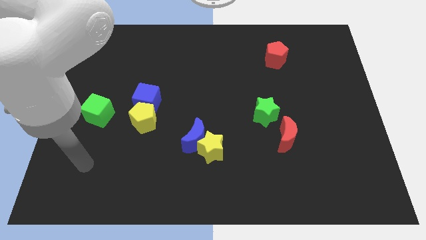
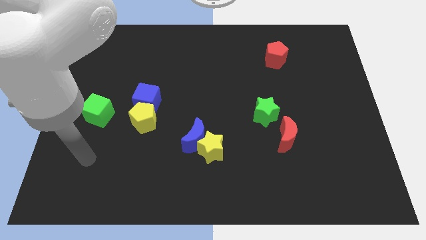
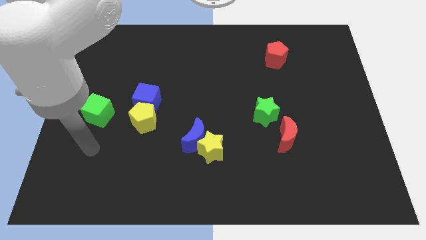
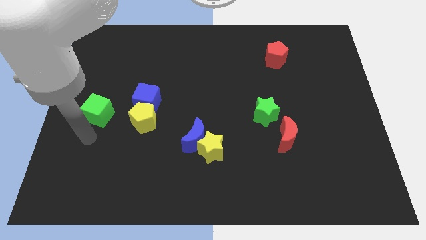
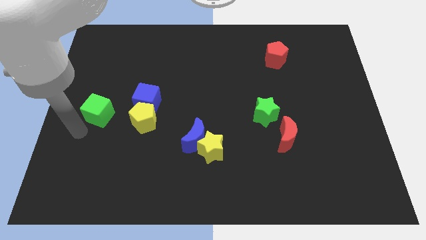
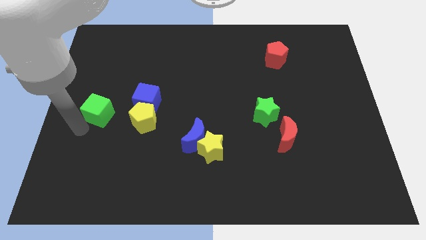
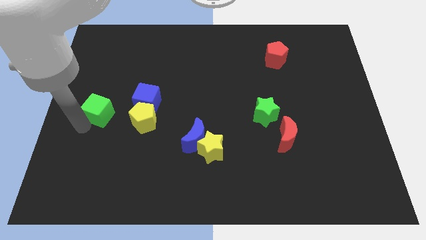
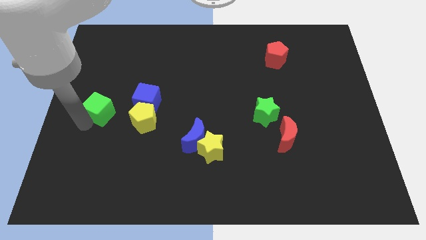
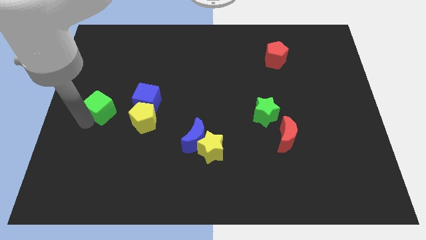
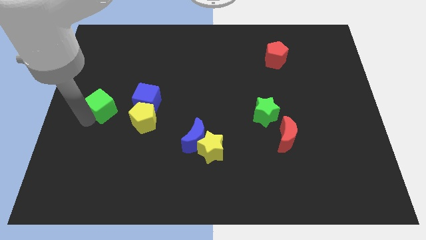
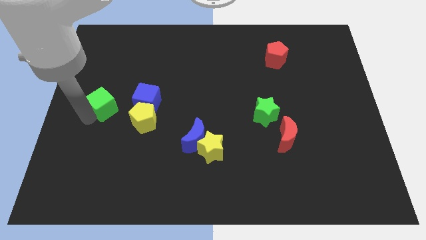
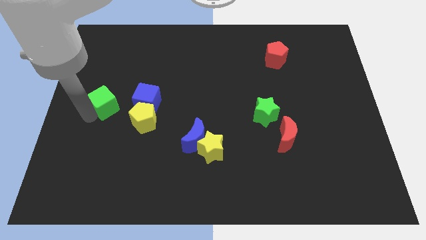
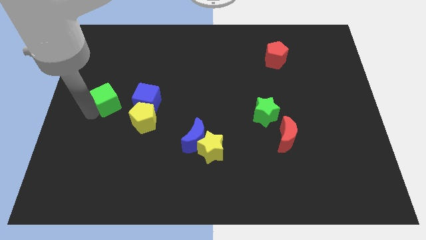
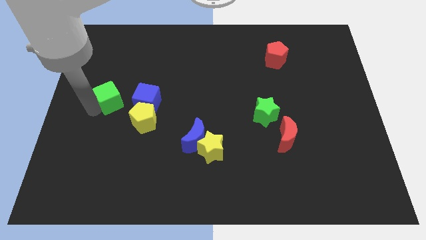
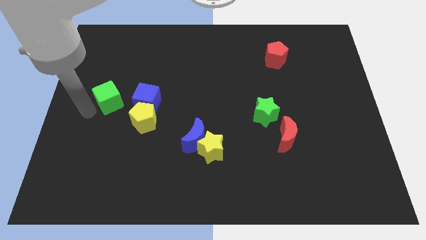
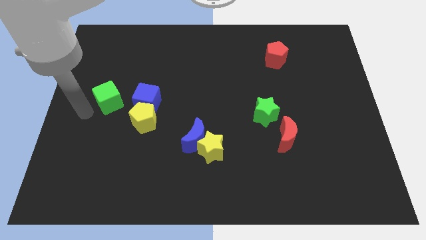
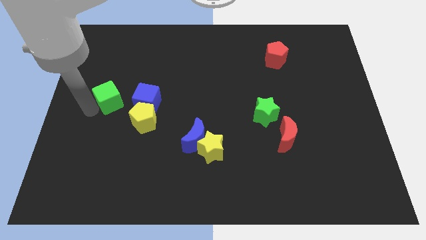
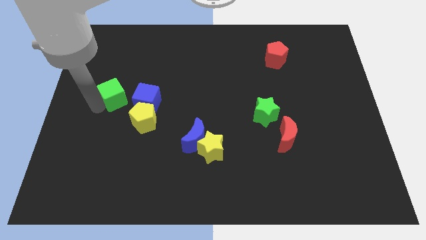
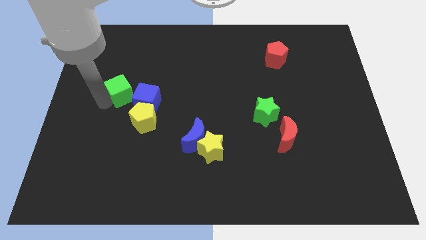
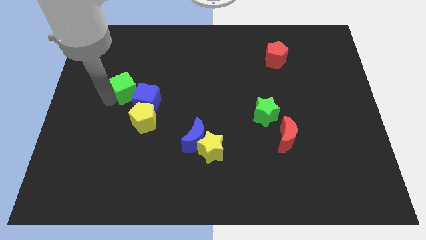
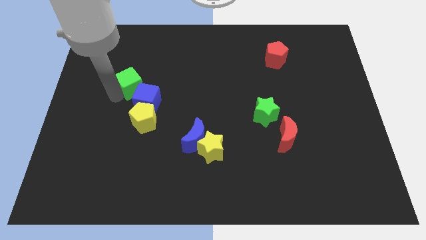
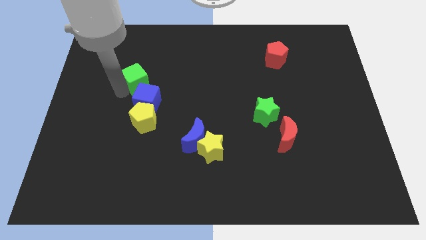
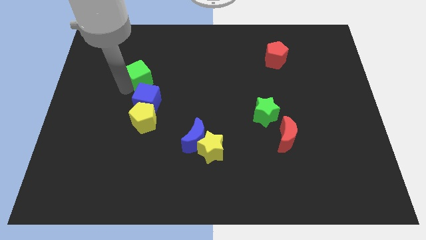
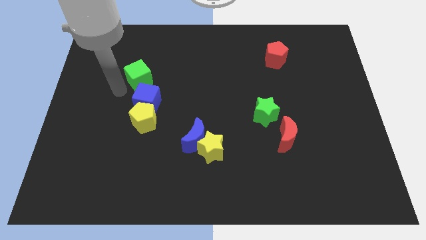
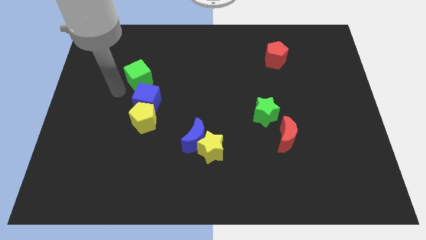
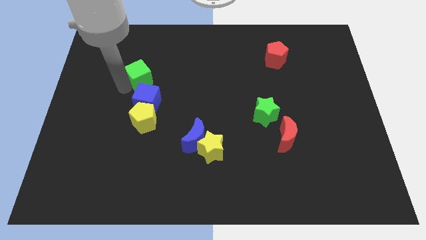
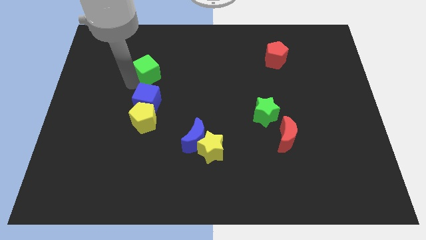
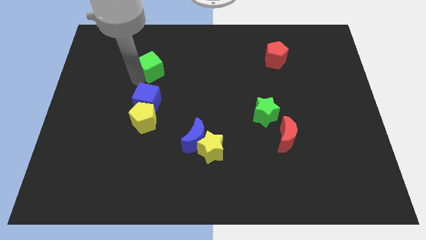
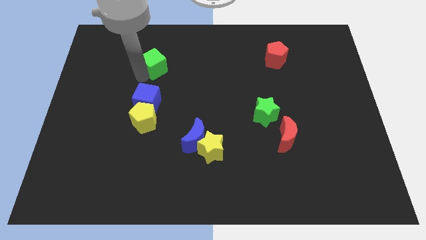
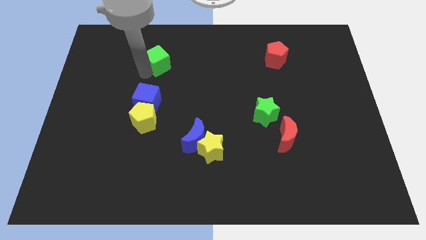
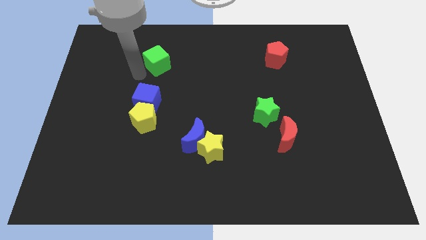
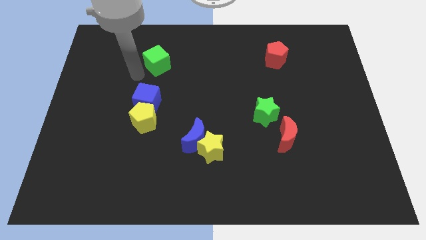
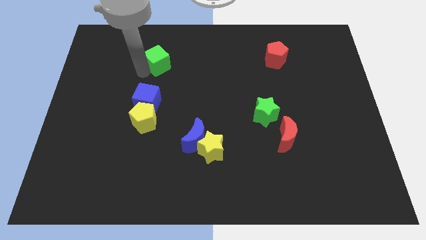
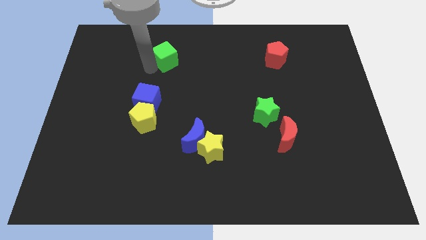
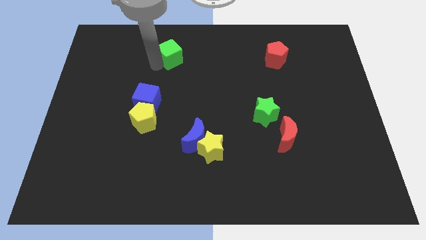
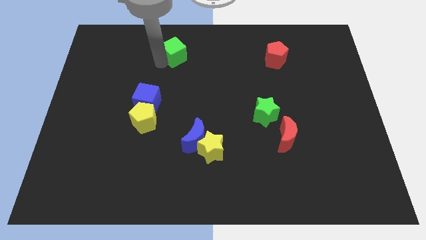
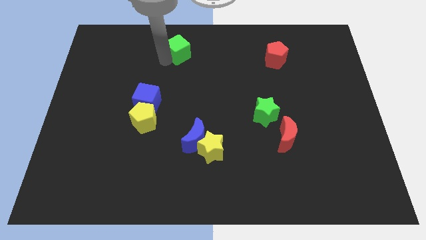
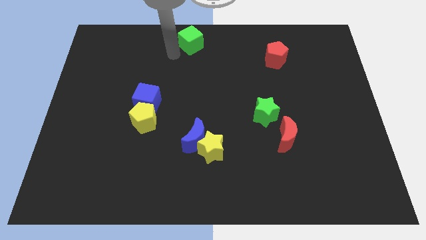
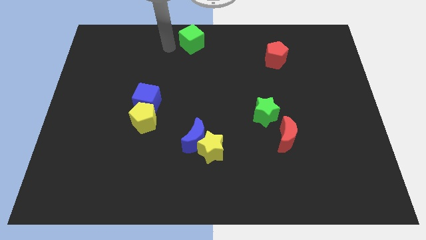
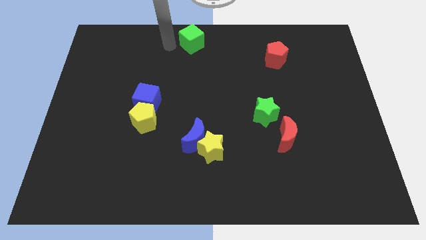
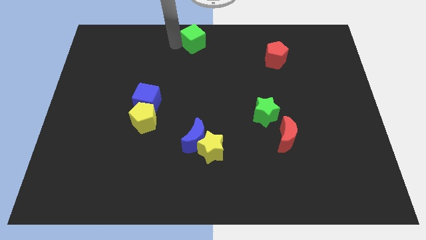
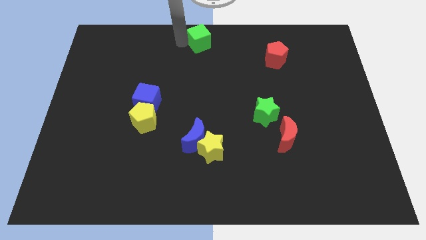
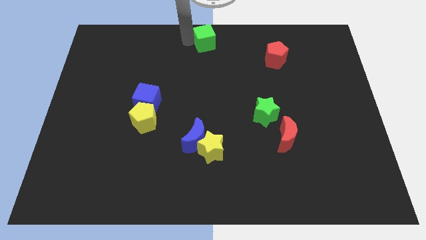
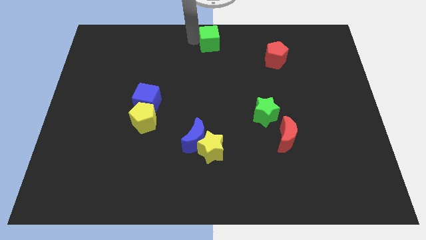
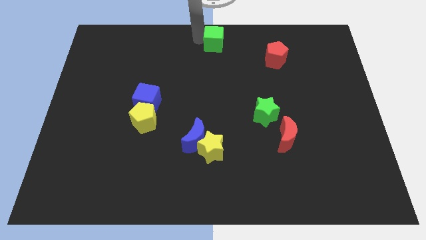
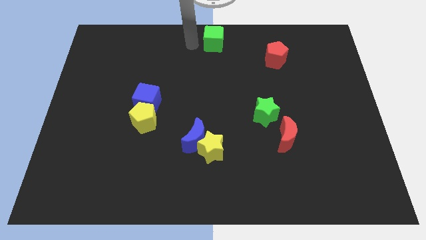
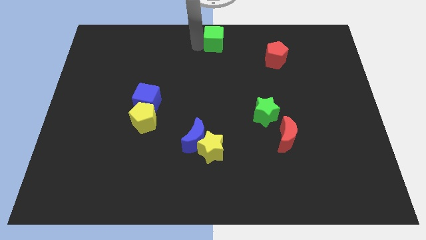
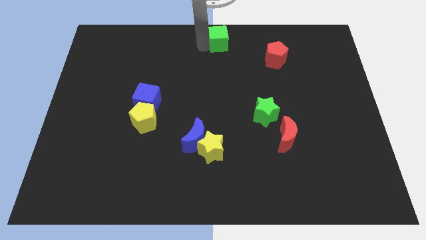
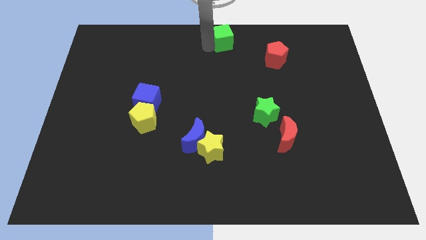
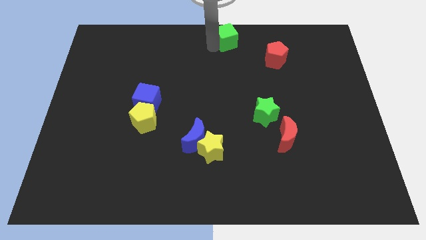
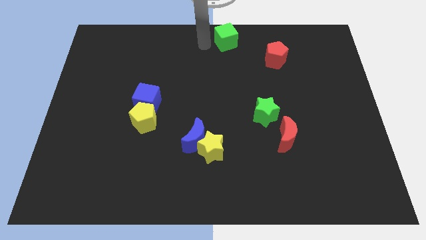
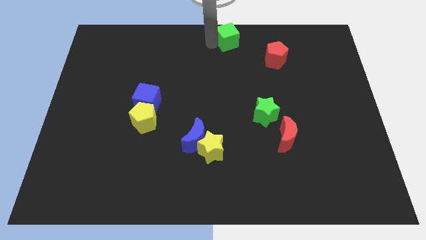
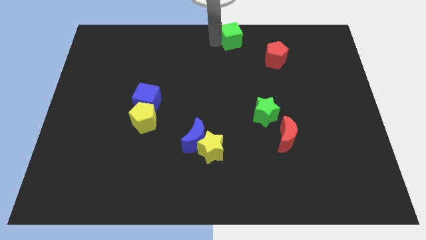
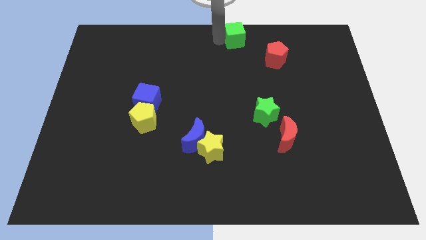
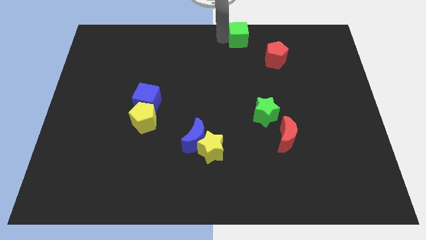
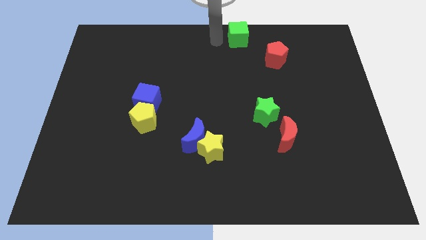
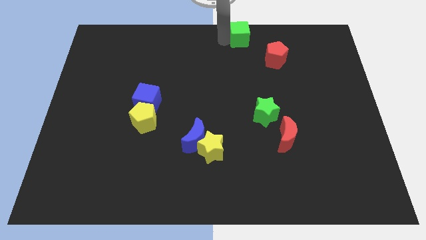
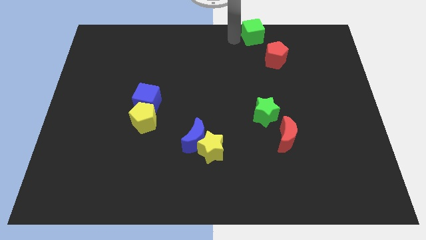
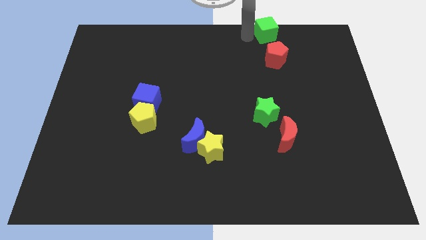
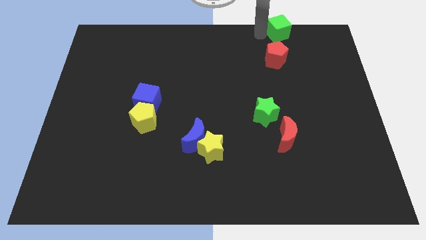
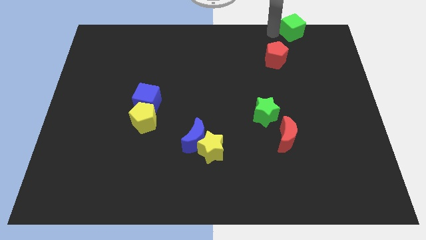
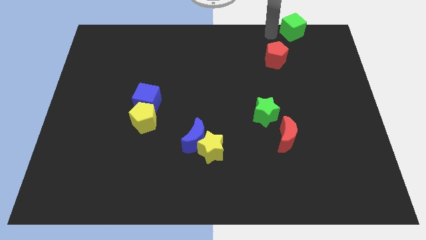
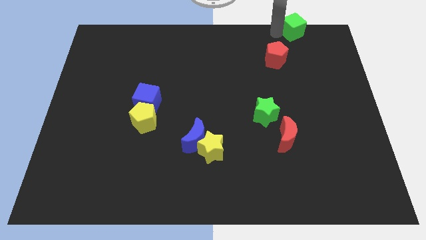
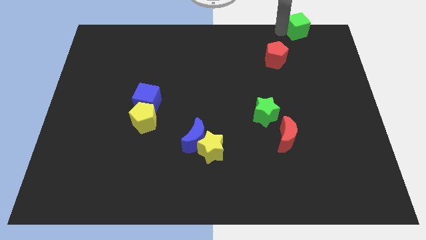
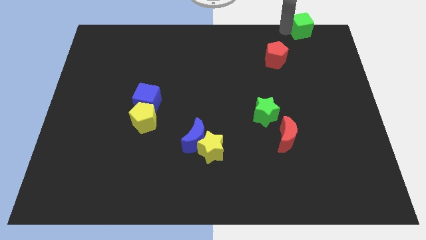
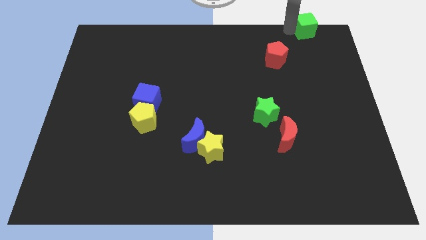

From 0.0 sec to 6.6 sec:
move the green cube to the upper right corner

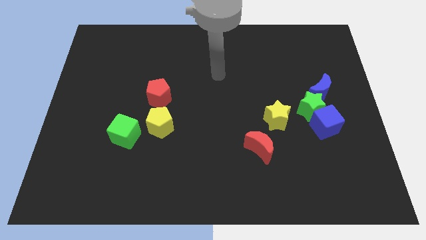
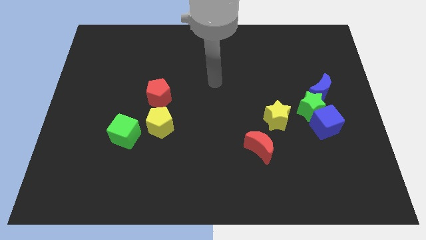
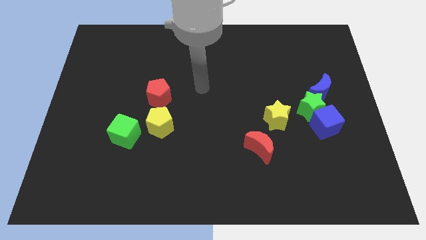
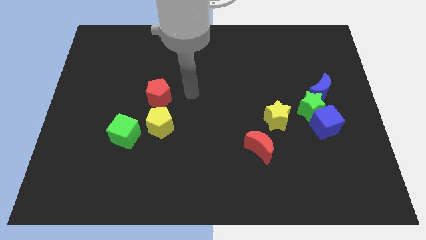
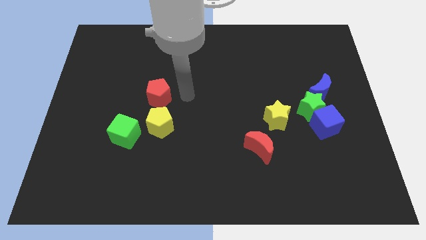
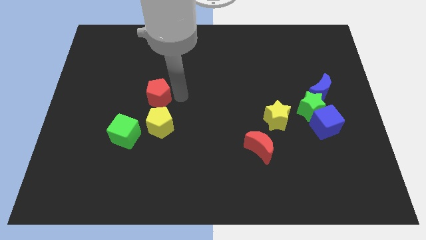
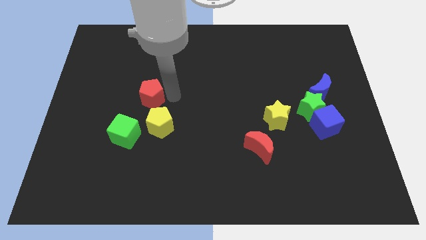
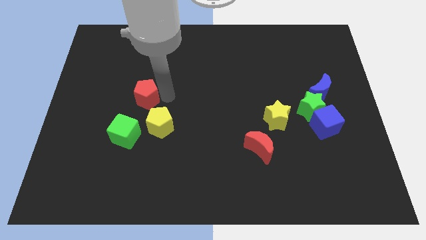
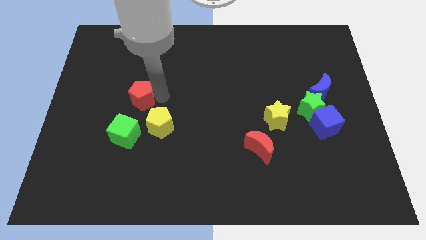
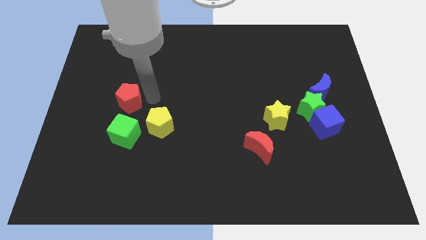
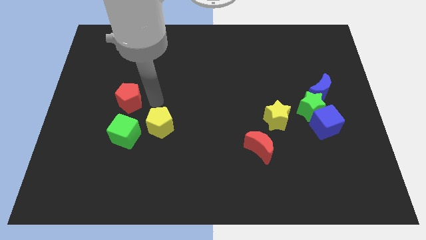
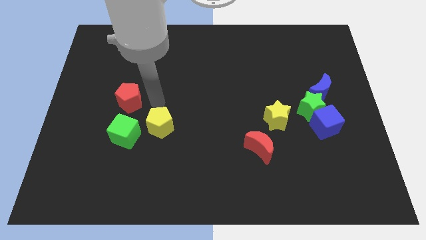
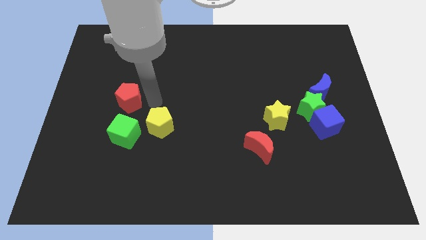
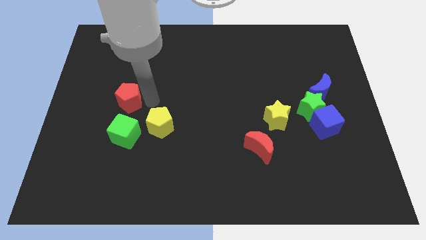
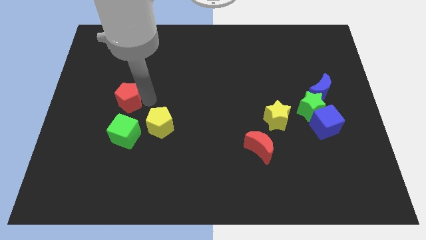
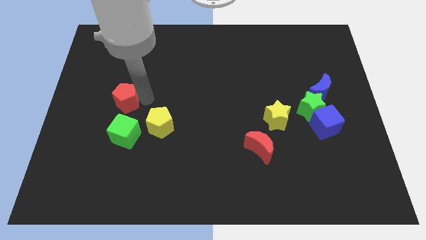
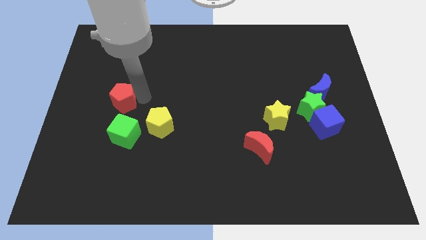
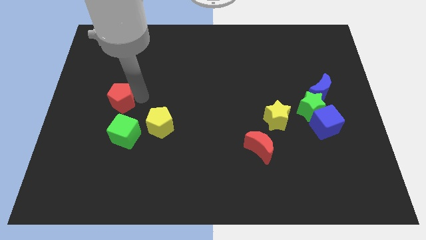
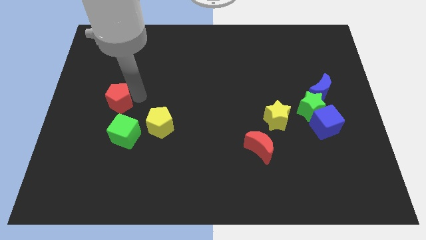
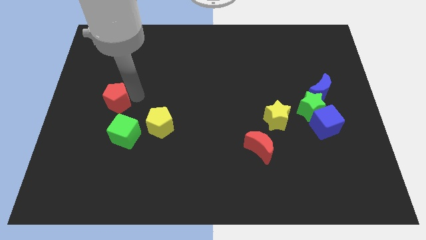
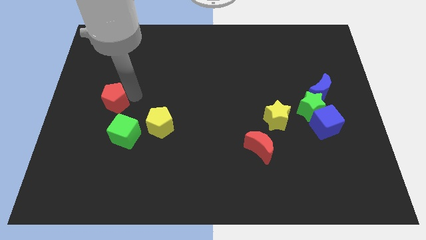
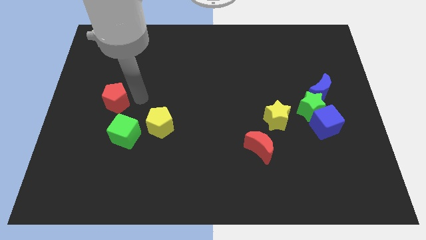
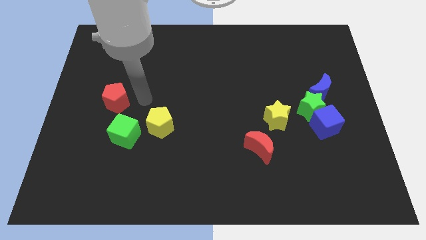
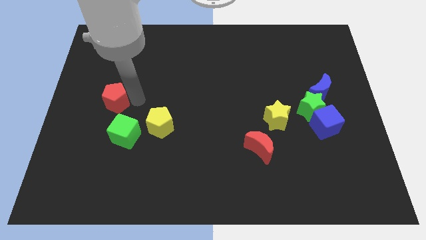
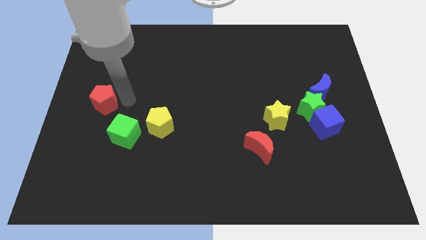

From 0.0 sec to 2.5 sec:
push the red pentagon to the center left
